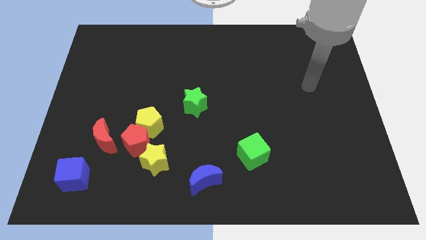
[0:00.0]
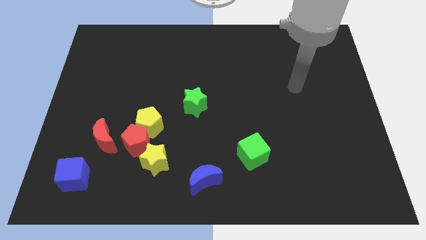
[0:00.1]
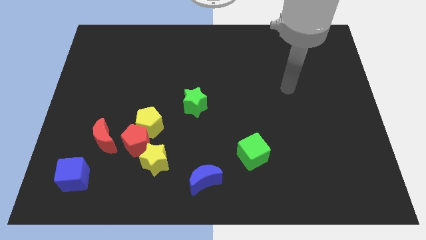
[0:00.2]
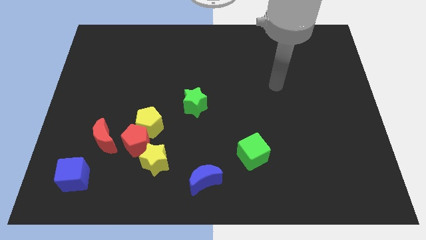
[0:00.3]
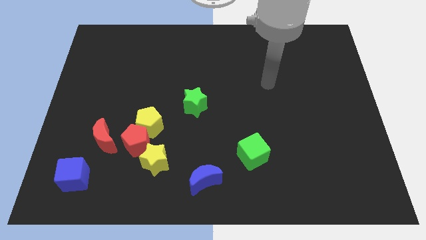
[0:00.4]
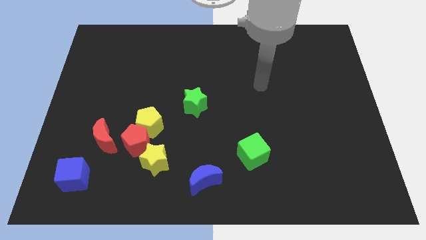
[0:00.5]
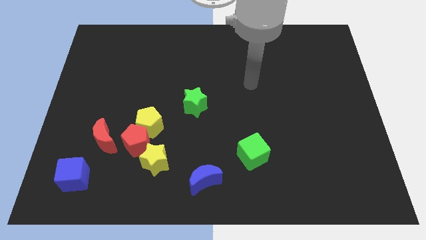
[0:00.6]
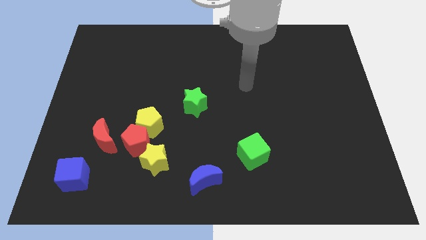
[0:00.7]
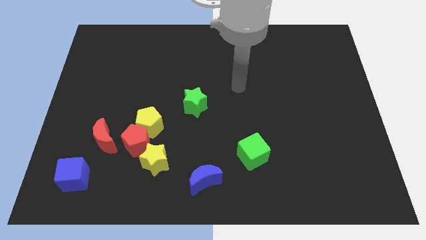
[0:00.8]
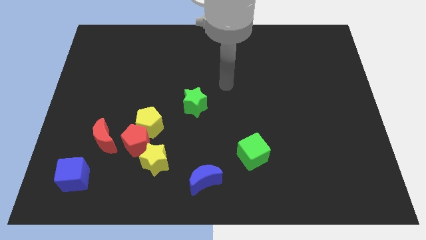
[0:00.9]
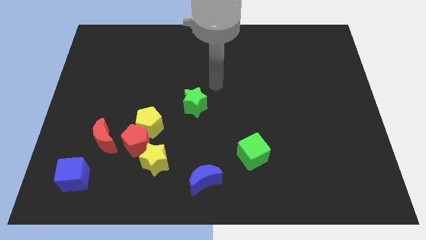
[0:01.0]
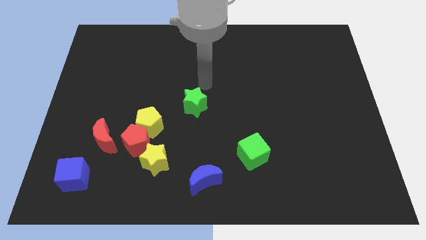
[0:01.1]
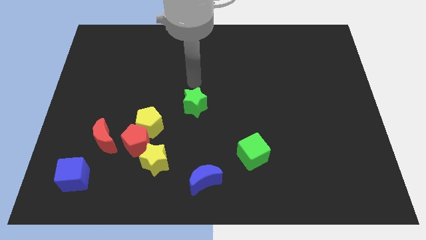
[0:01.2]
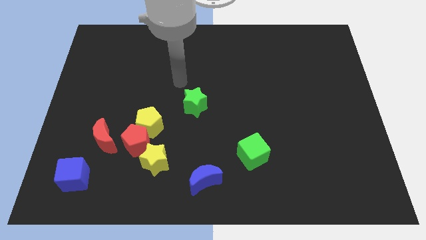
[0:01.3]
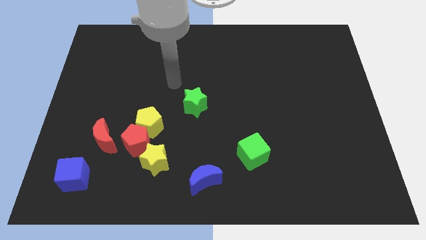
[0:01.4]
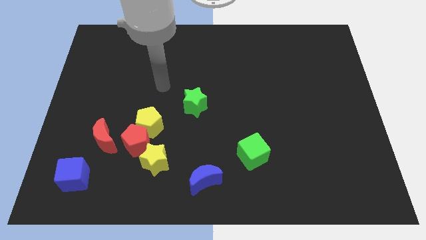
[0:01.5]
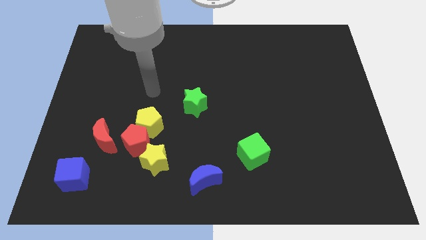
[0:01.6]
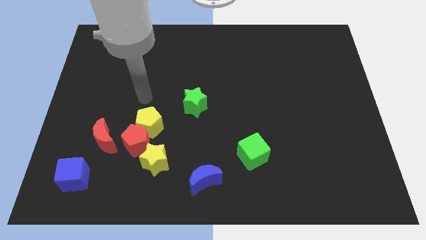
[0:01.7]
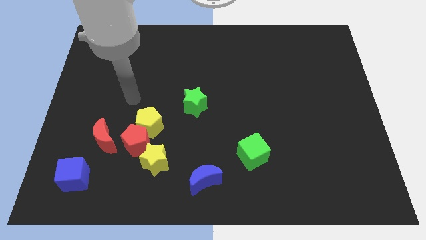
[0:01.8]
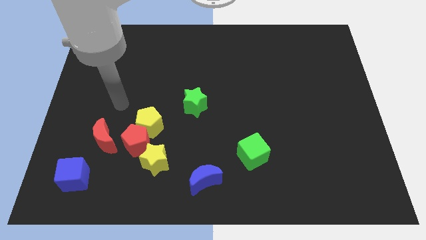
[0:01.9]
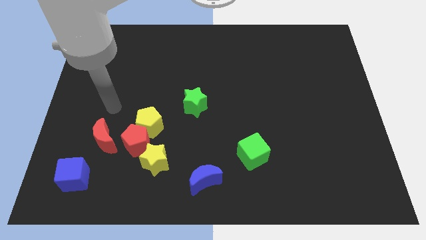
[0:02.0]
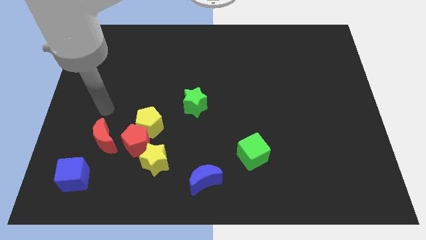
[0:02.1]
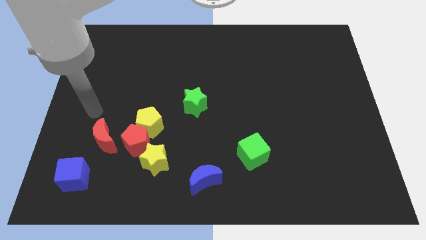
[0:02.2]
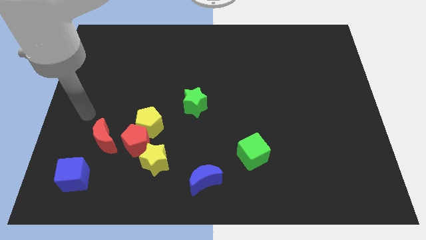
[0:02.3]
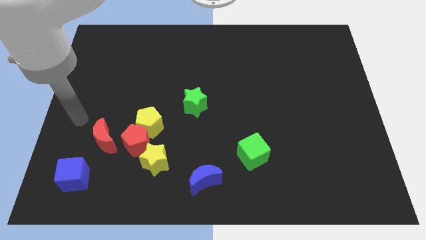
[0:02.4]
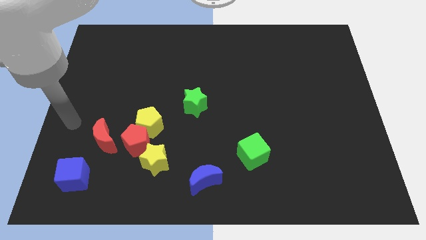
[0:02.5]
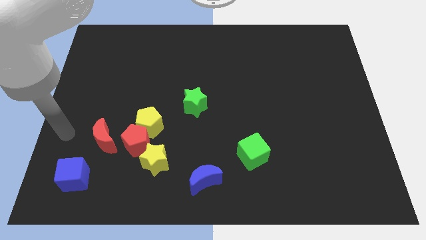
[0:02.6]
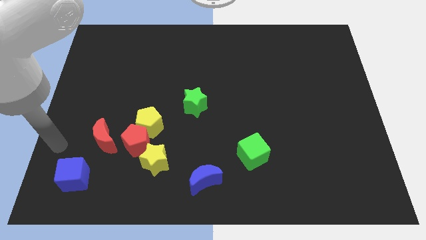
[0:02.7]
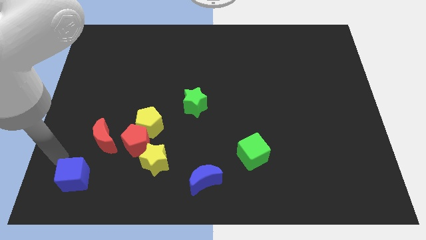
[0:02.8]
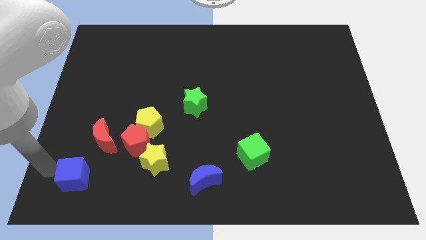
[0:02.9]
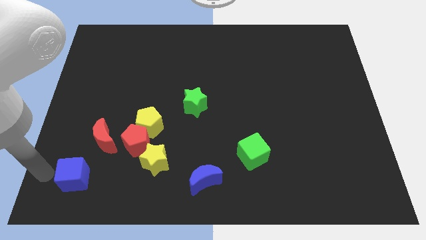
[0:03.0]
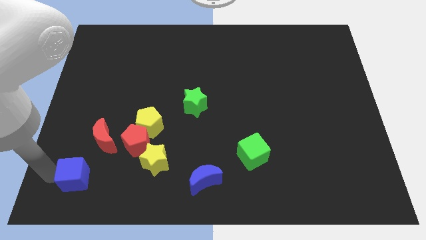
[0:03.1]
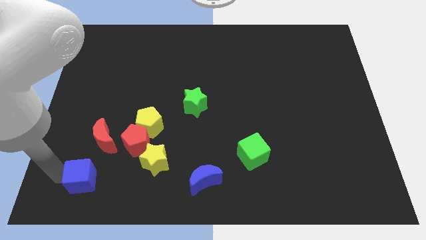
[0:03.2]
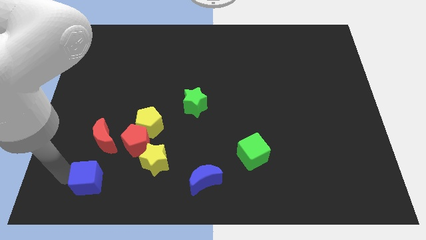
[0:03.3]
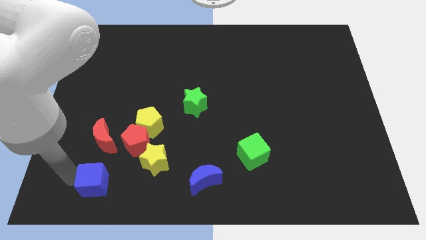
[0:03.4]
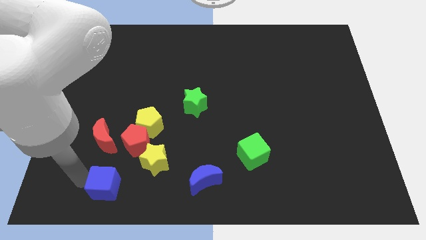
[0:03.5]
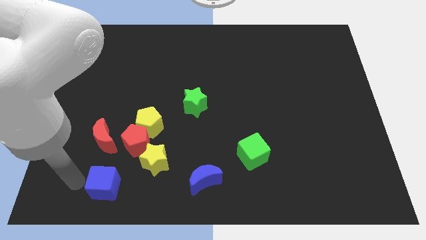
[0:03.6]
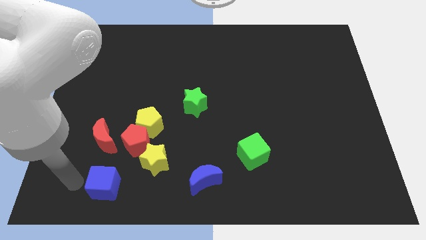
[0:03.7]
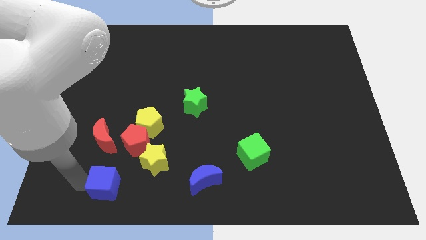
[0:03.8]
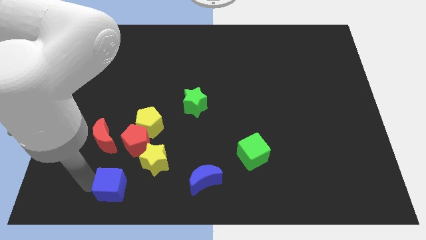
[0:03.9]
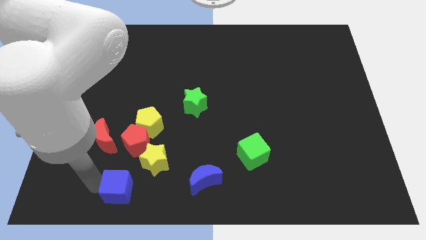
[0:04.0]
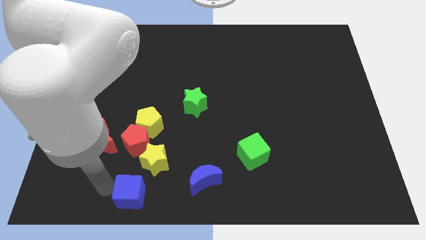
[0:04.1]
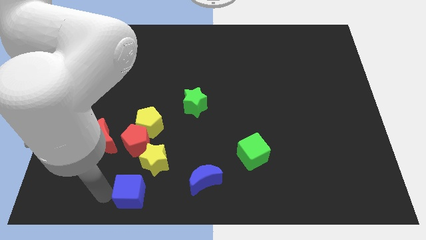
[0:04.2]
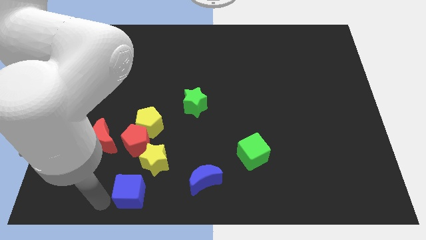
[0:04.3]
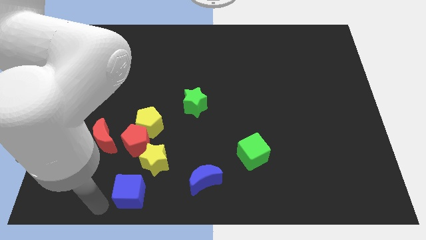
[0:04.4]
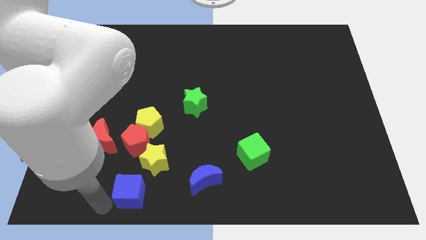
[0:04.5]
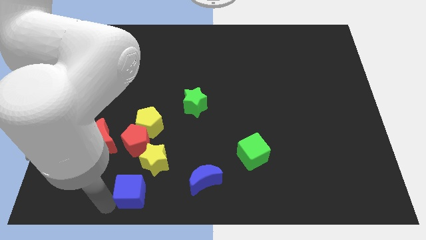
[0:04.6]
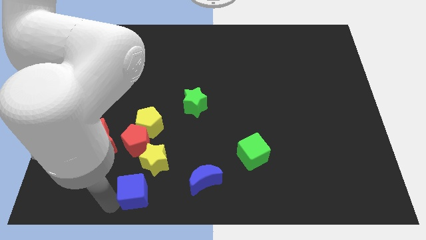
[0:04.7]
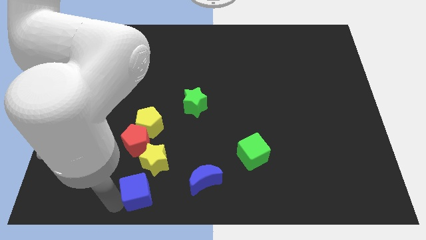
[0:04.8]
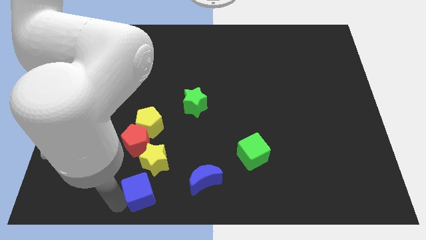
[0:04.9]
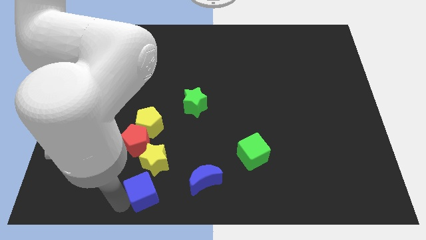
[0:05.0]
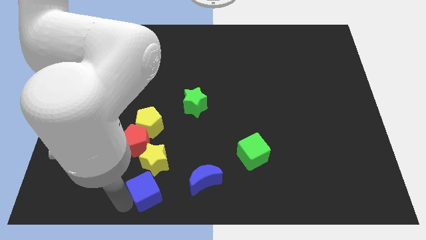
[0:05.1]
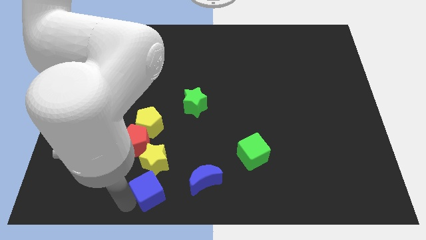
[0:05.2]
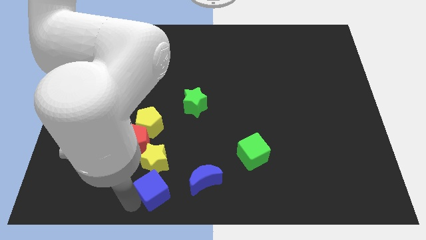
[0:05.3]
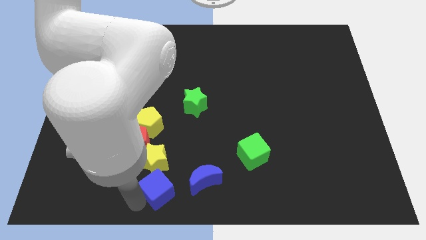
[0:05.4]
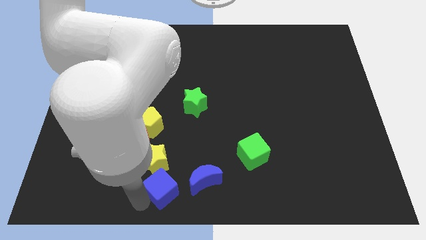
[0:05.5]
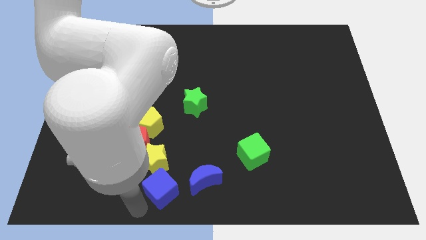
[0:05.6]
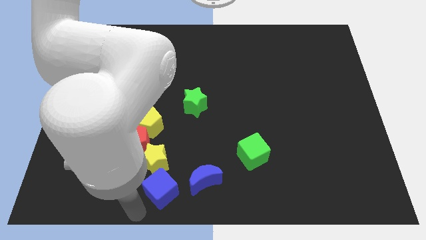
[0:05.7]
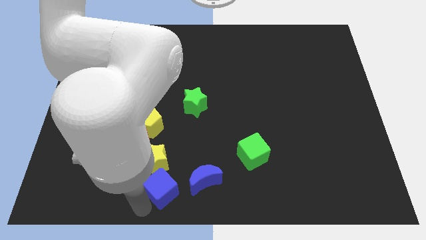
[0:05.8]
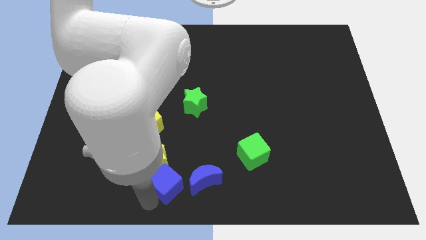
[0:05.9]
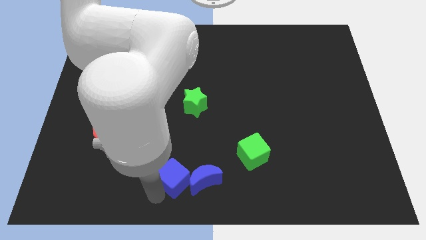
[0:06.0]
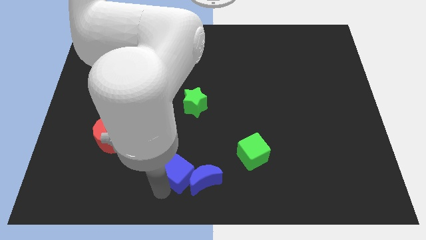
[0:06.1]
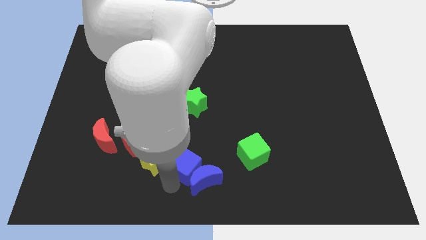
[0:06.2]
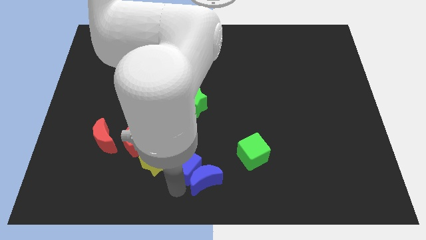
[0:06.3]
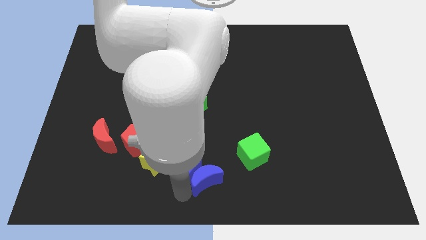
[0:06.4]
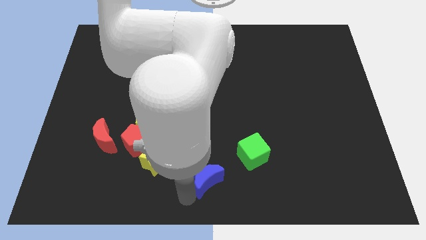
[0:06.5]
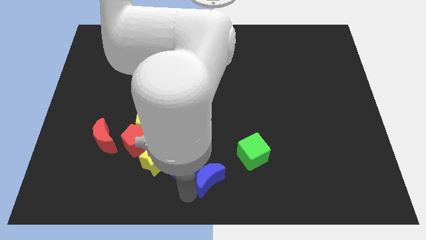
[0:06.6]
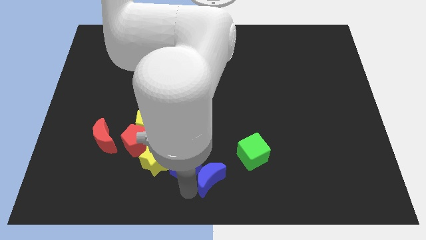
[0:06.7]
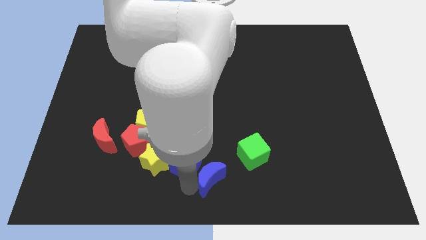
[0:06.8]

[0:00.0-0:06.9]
move the blue cube just right of the red pentagon

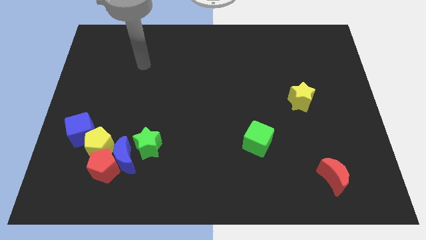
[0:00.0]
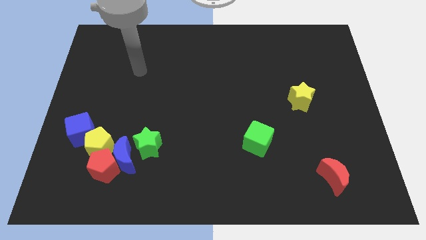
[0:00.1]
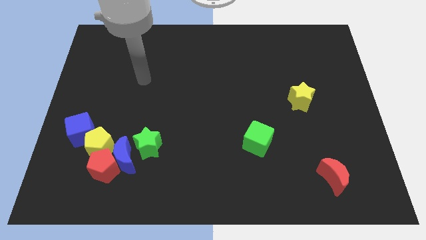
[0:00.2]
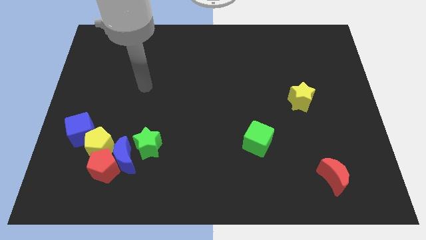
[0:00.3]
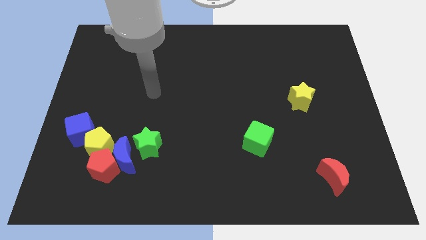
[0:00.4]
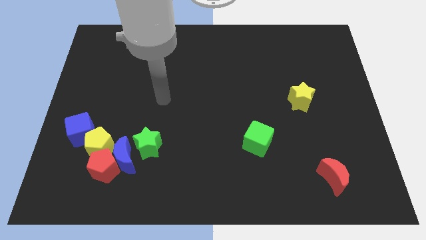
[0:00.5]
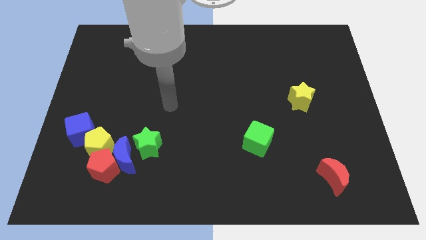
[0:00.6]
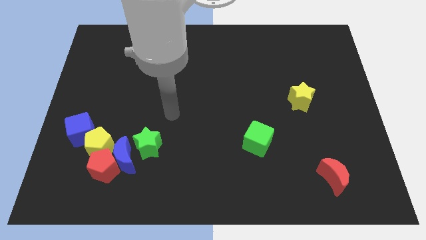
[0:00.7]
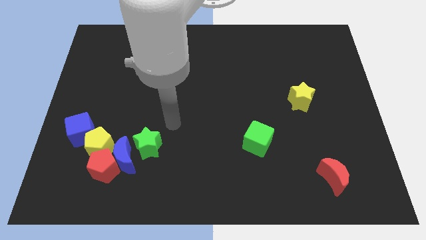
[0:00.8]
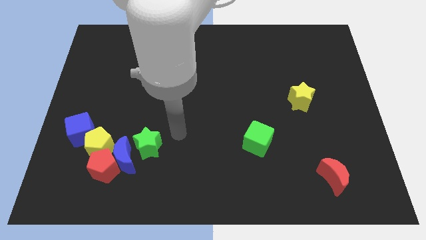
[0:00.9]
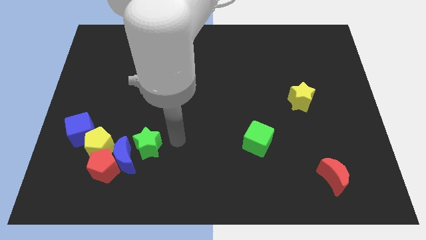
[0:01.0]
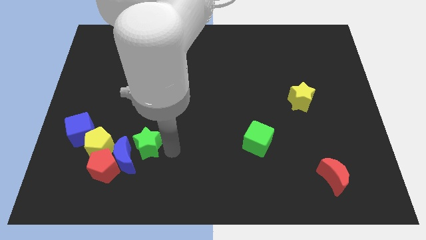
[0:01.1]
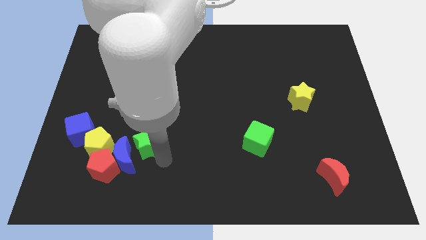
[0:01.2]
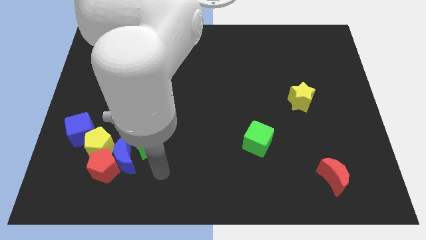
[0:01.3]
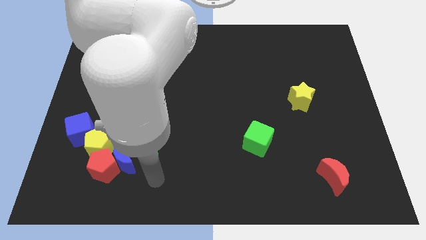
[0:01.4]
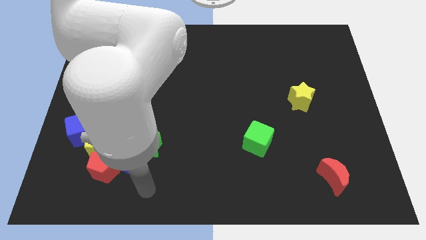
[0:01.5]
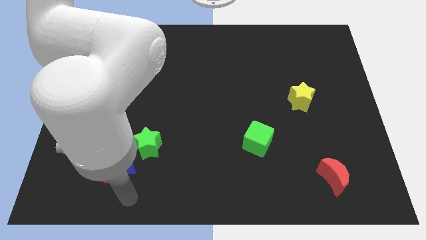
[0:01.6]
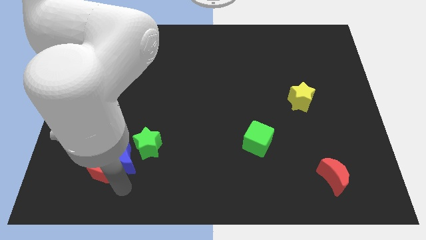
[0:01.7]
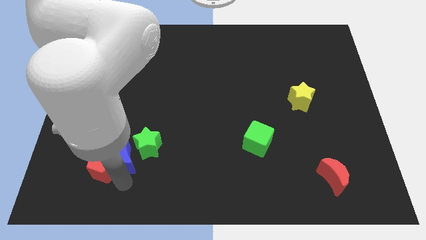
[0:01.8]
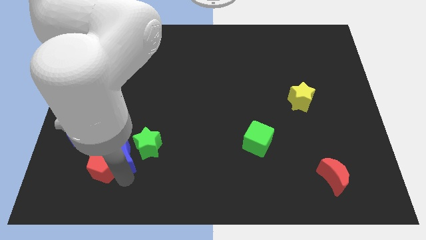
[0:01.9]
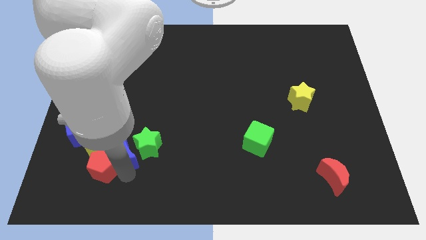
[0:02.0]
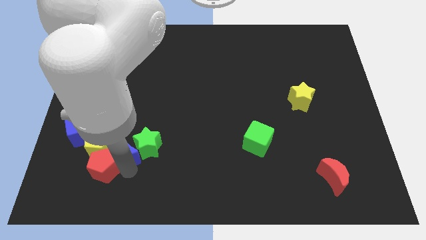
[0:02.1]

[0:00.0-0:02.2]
move the blue moon to the top left side of the green star
